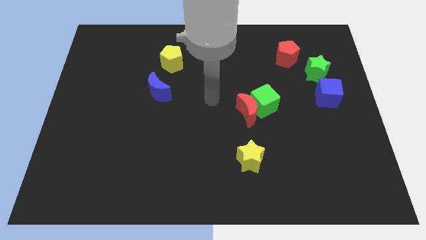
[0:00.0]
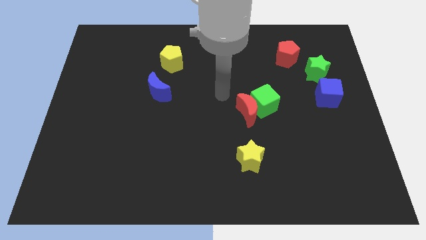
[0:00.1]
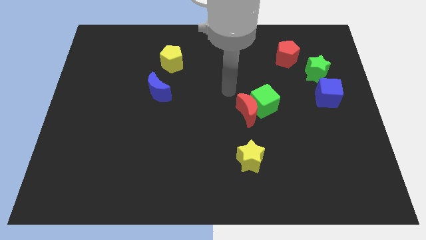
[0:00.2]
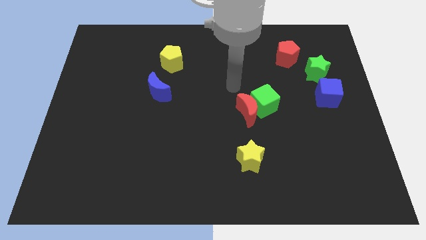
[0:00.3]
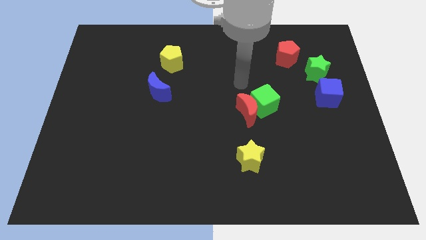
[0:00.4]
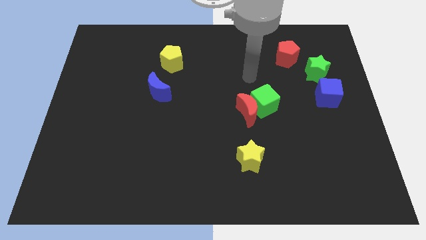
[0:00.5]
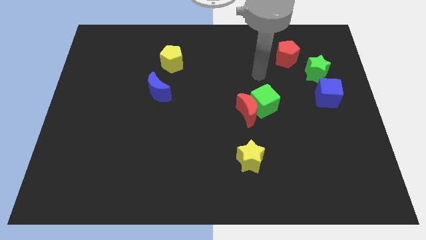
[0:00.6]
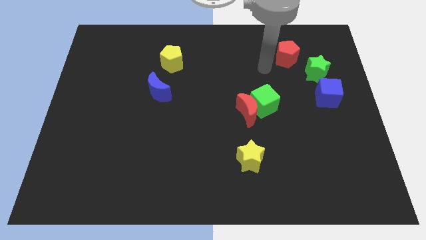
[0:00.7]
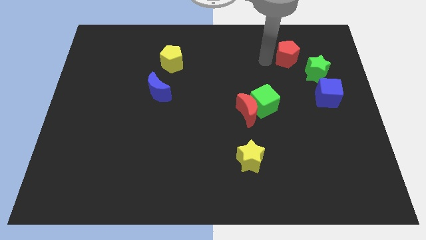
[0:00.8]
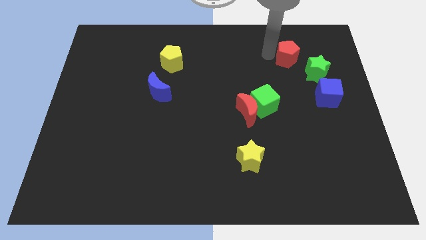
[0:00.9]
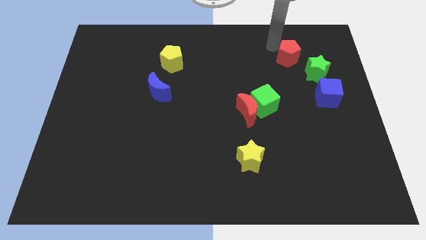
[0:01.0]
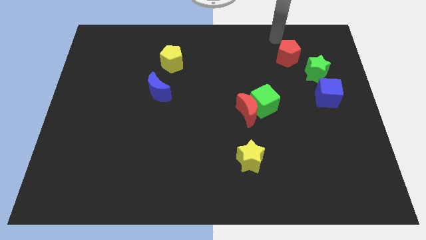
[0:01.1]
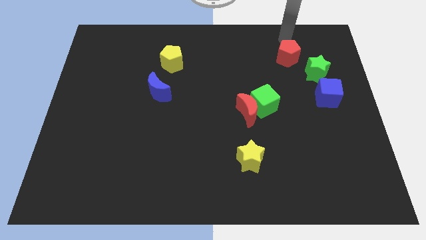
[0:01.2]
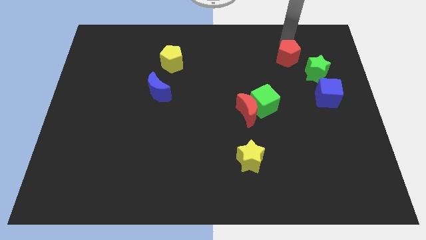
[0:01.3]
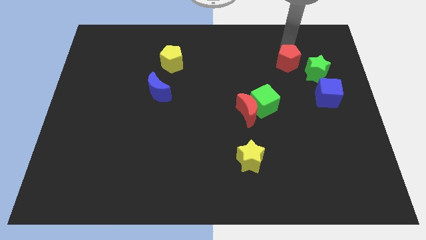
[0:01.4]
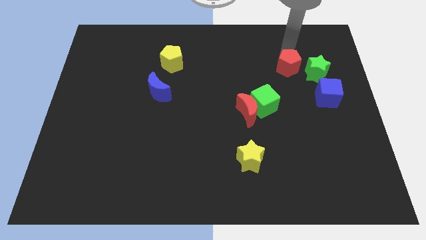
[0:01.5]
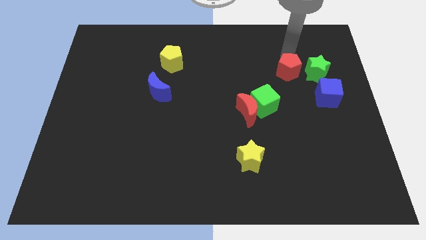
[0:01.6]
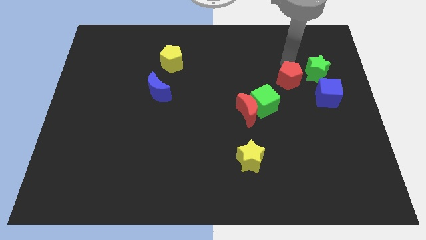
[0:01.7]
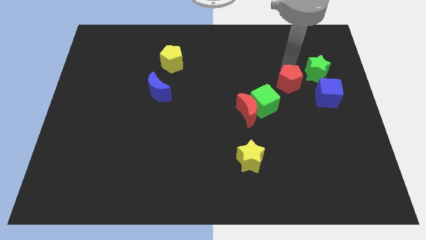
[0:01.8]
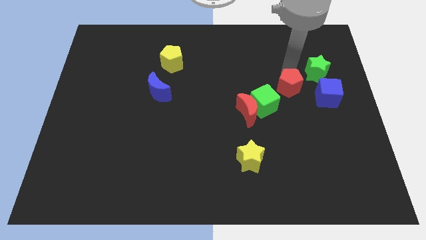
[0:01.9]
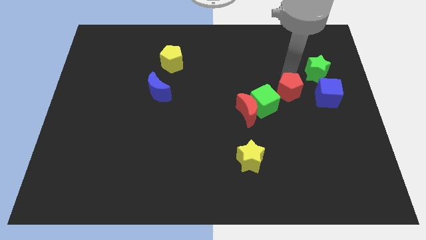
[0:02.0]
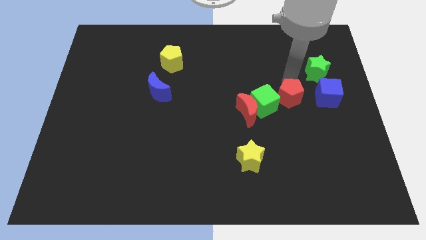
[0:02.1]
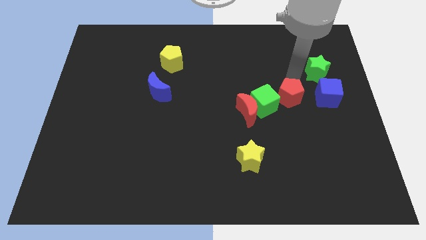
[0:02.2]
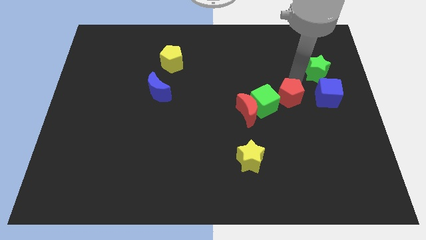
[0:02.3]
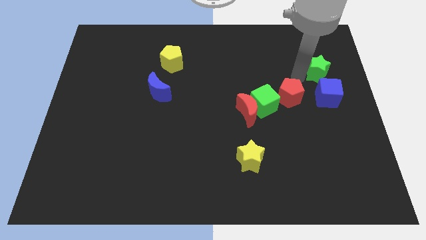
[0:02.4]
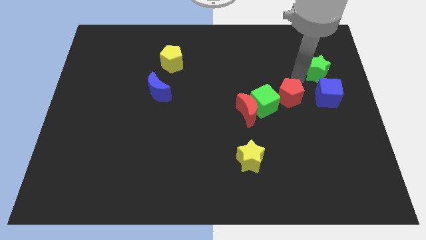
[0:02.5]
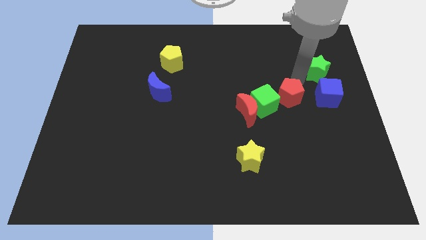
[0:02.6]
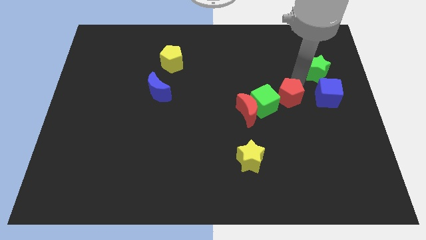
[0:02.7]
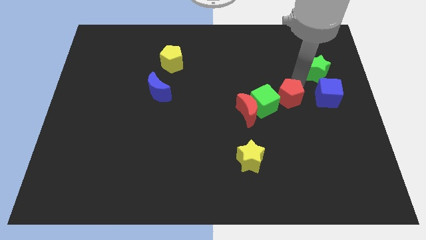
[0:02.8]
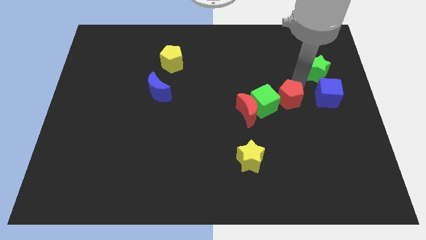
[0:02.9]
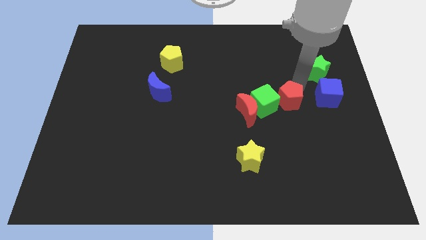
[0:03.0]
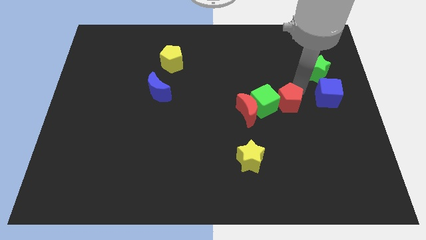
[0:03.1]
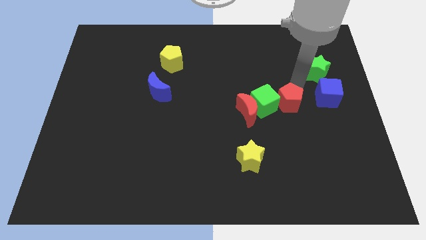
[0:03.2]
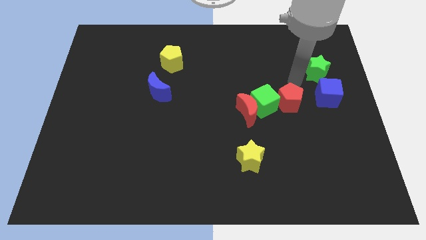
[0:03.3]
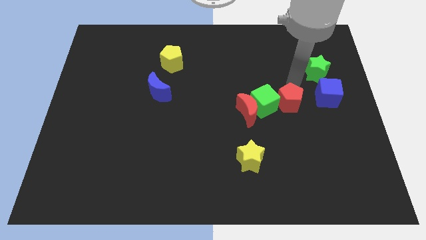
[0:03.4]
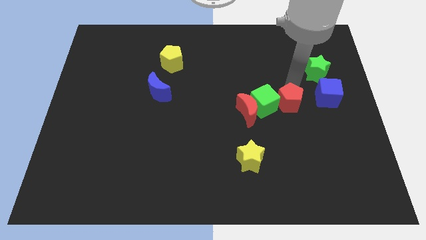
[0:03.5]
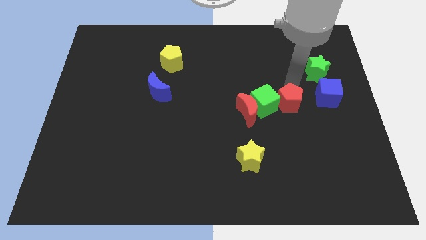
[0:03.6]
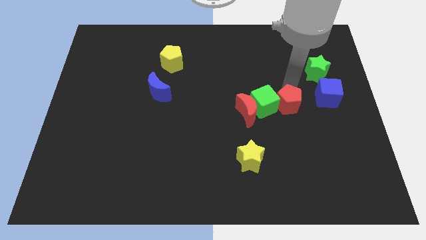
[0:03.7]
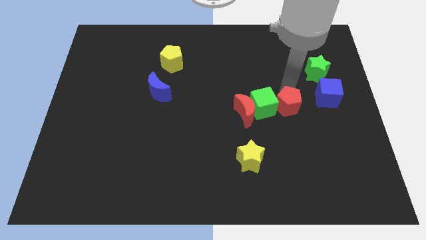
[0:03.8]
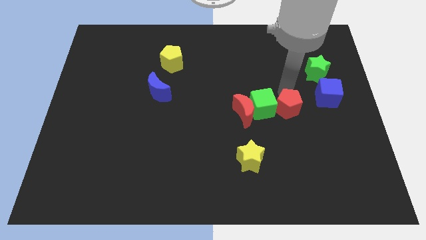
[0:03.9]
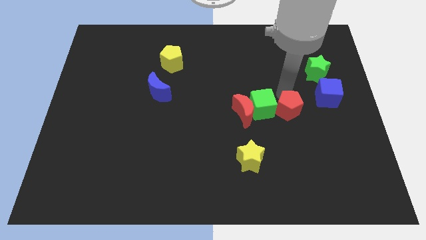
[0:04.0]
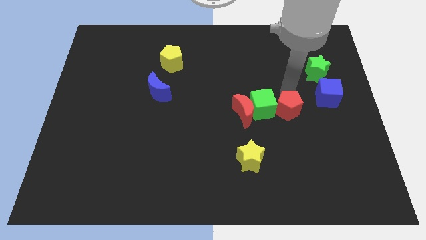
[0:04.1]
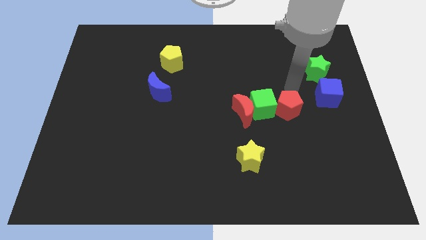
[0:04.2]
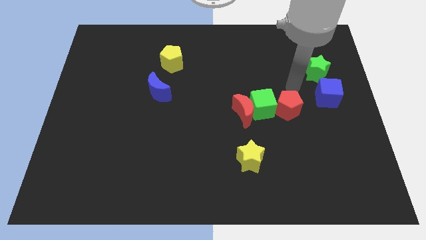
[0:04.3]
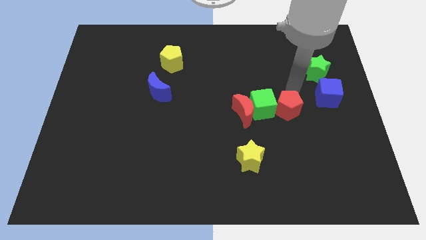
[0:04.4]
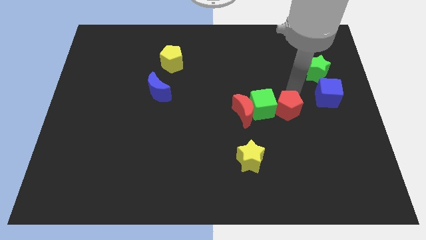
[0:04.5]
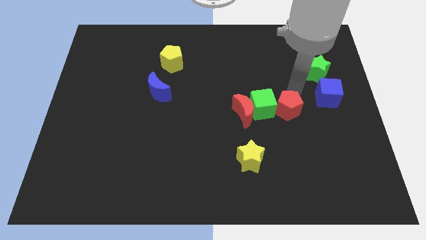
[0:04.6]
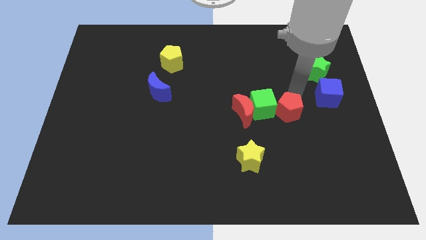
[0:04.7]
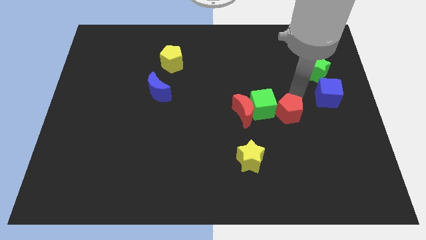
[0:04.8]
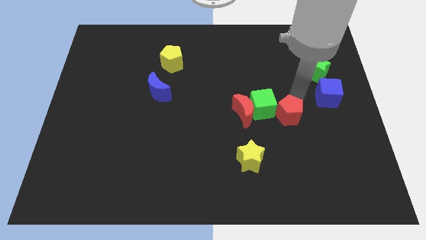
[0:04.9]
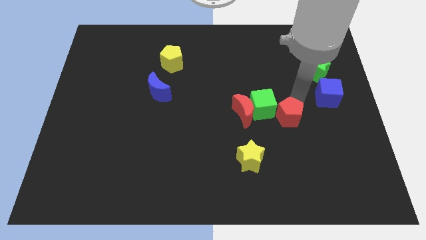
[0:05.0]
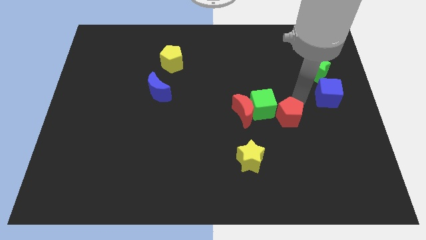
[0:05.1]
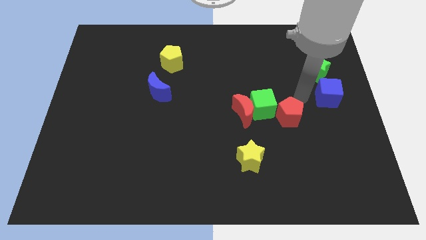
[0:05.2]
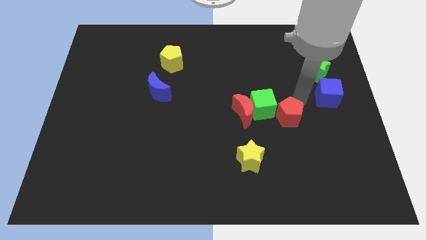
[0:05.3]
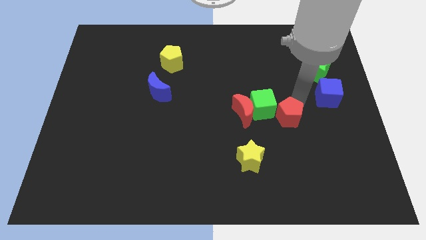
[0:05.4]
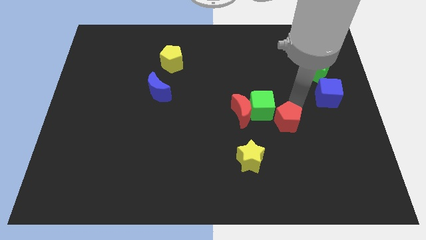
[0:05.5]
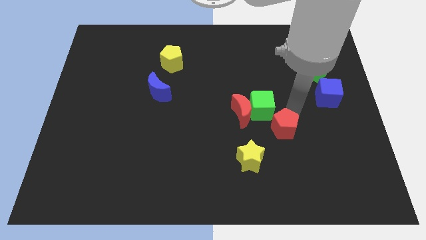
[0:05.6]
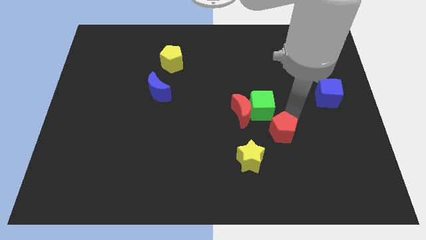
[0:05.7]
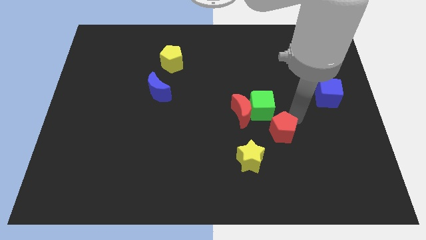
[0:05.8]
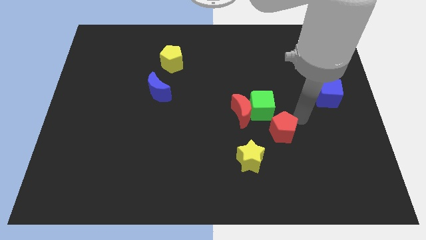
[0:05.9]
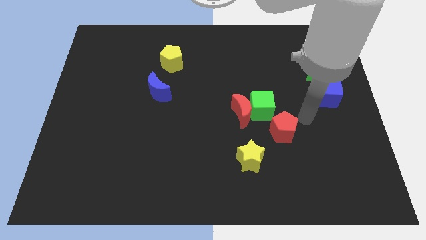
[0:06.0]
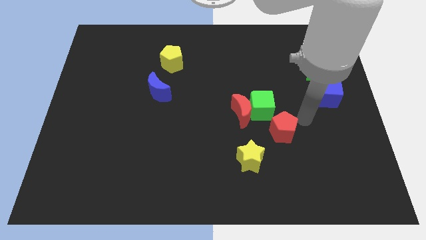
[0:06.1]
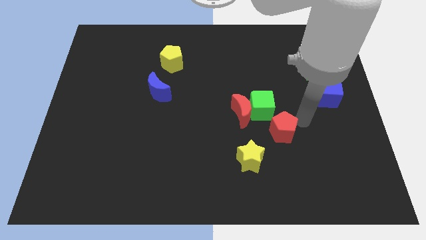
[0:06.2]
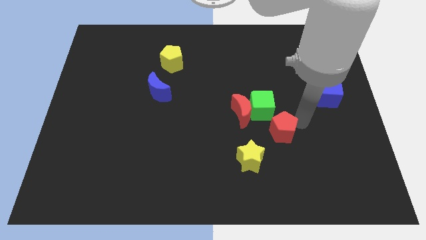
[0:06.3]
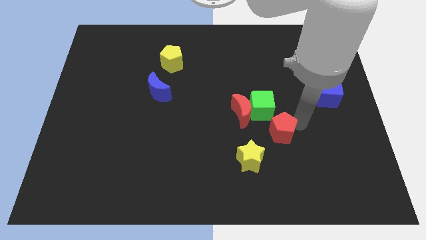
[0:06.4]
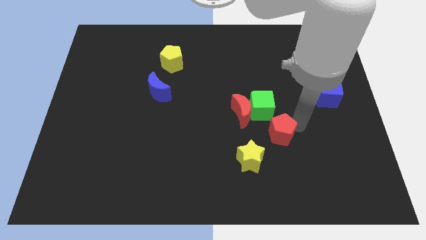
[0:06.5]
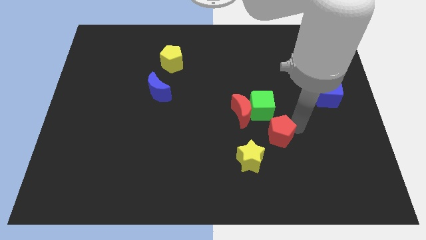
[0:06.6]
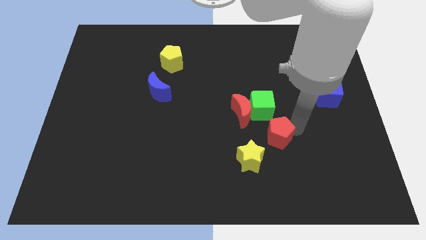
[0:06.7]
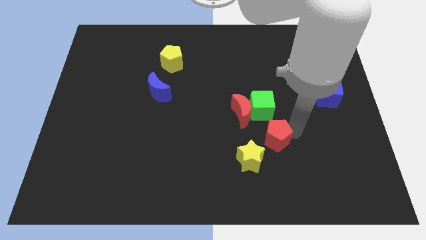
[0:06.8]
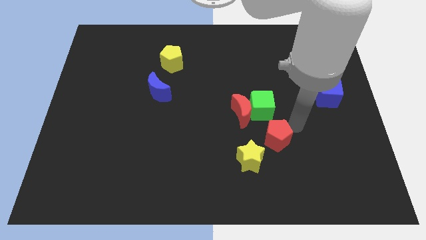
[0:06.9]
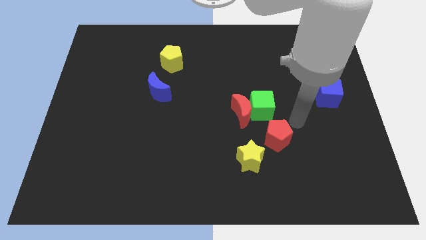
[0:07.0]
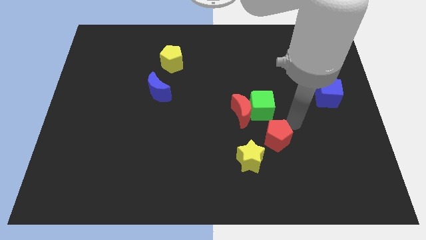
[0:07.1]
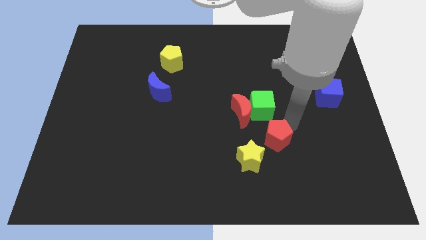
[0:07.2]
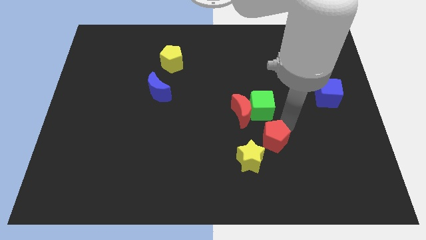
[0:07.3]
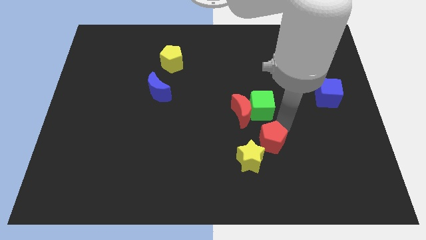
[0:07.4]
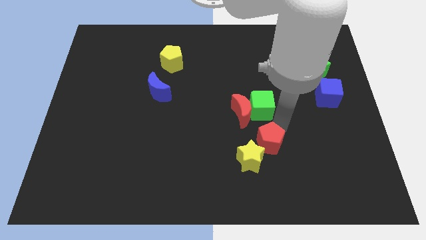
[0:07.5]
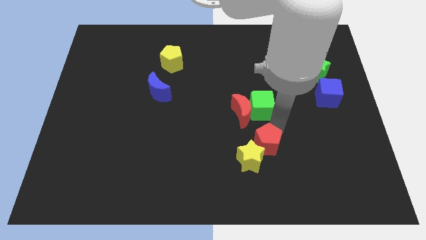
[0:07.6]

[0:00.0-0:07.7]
move the red pentagon next to the yellow star
